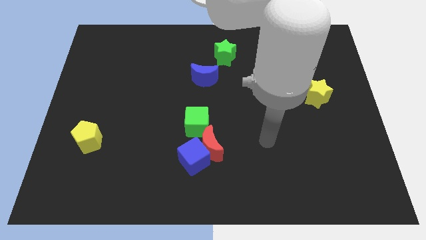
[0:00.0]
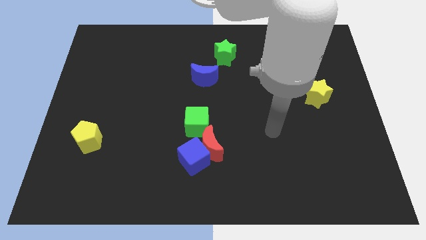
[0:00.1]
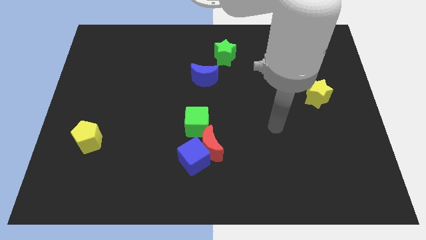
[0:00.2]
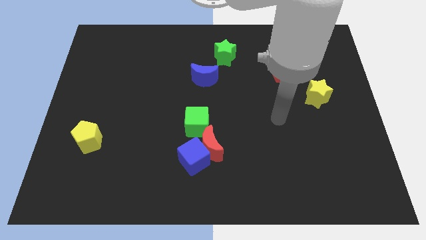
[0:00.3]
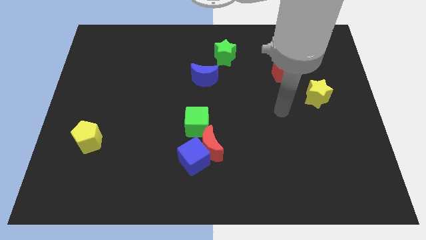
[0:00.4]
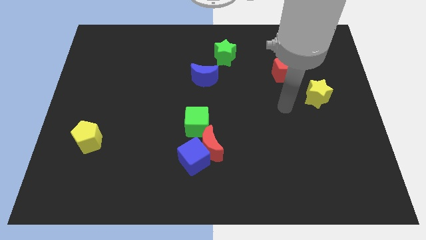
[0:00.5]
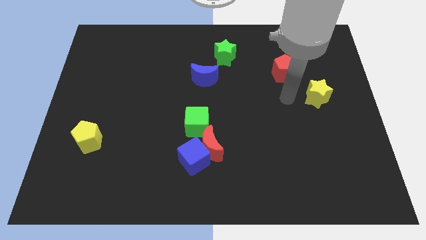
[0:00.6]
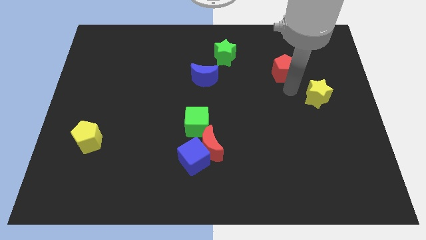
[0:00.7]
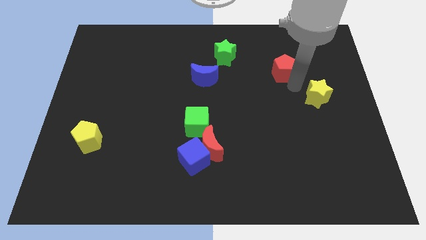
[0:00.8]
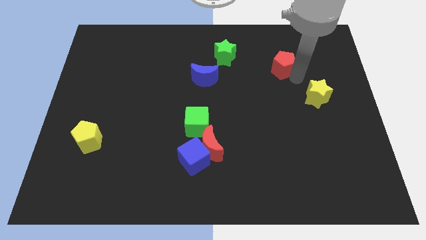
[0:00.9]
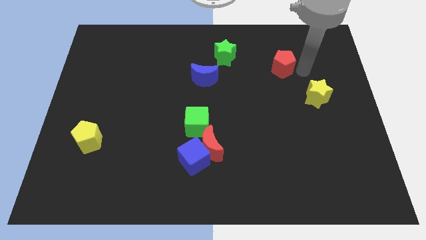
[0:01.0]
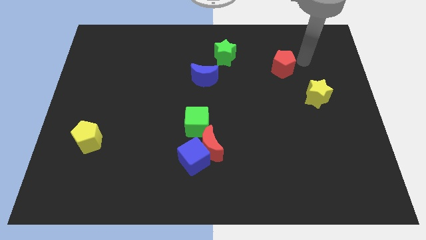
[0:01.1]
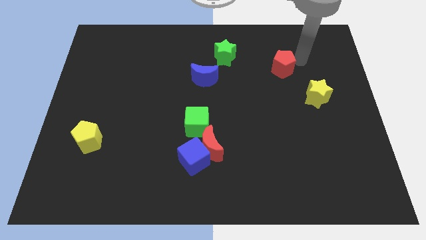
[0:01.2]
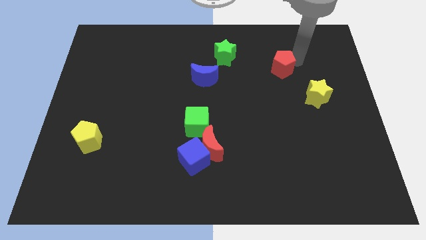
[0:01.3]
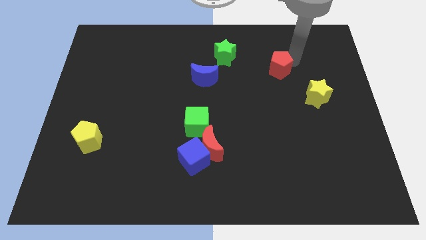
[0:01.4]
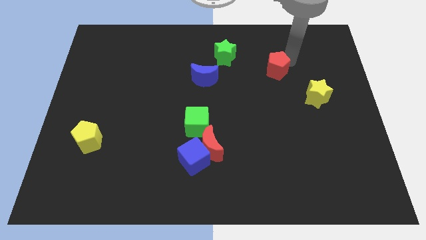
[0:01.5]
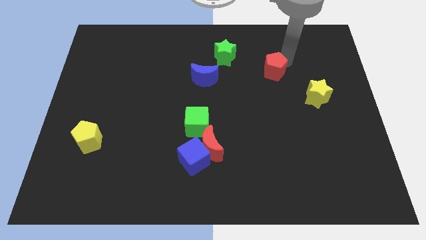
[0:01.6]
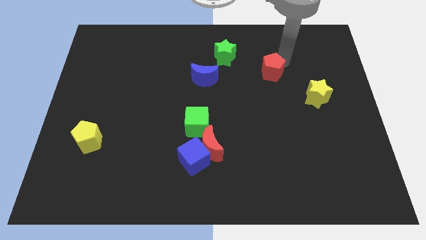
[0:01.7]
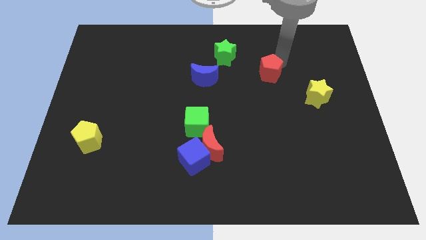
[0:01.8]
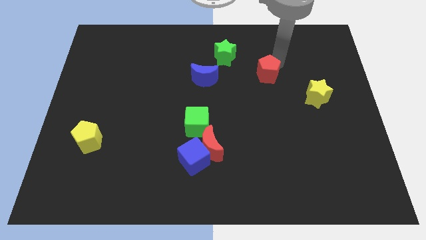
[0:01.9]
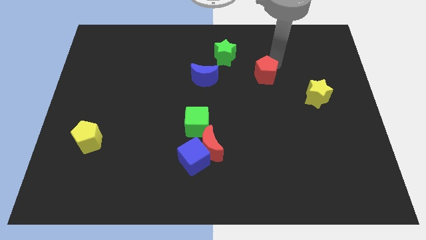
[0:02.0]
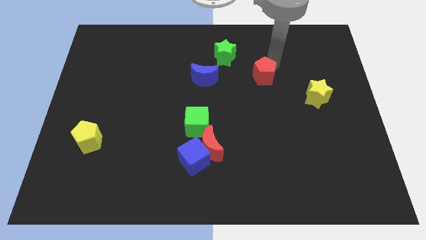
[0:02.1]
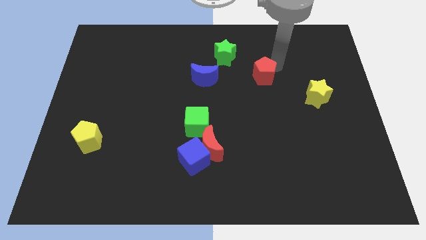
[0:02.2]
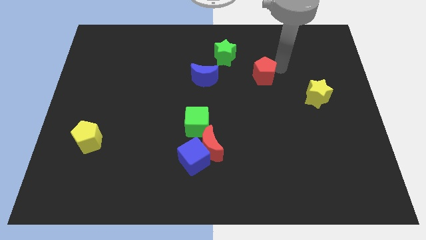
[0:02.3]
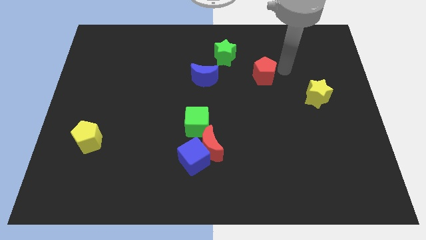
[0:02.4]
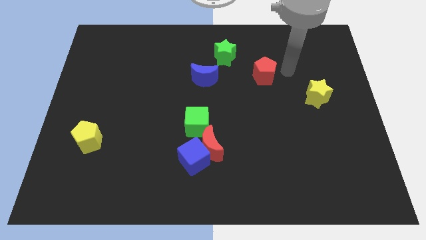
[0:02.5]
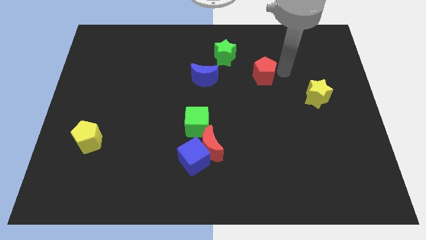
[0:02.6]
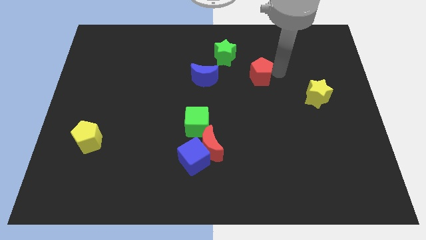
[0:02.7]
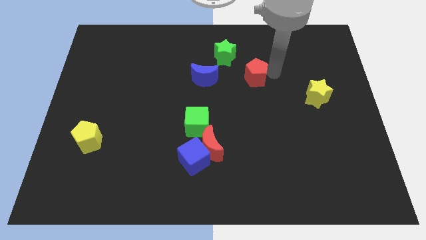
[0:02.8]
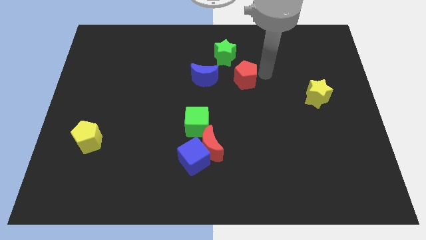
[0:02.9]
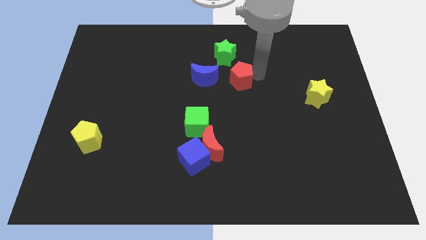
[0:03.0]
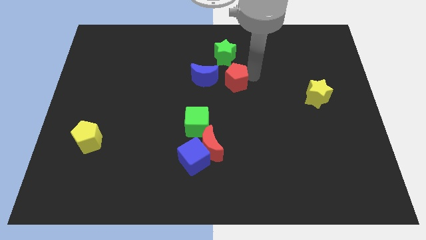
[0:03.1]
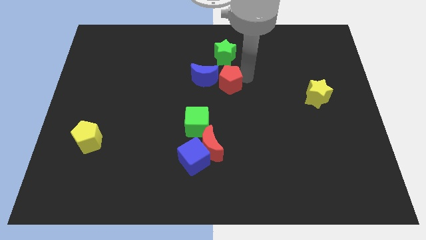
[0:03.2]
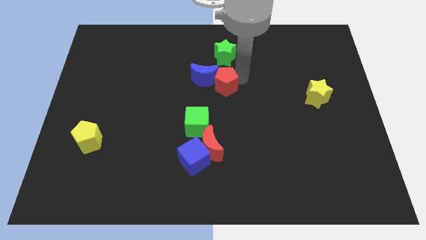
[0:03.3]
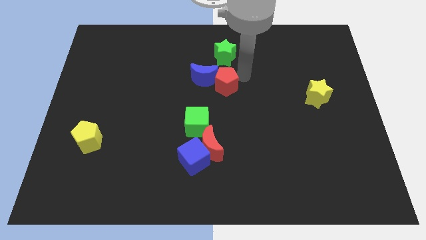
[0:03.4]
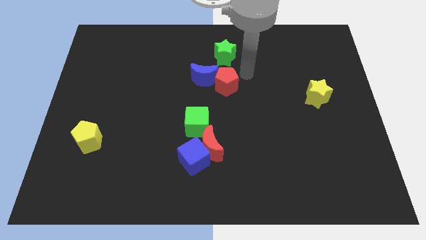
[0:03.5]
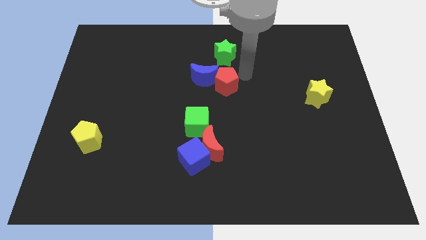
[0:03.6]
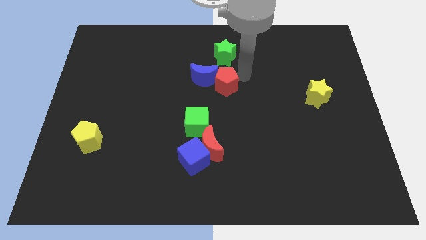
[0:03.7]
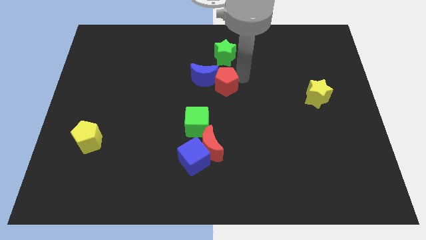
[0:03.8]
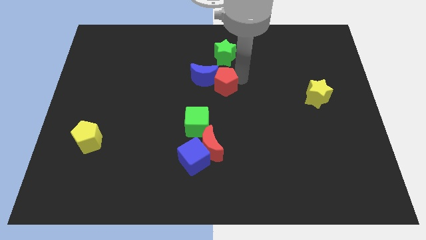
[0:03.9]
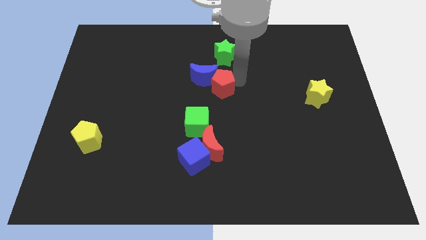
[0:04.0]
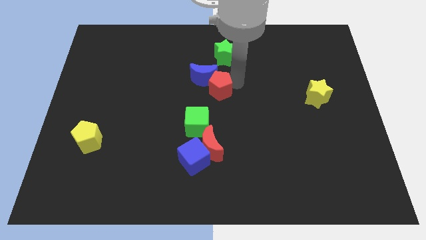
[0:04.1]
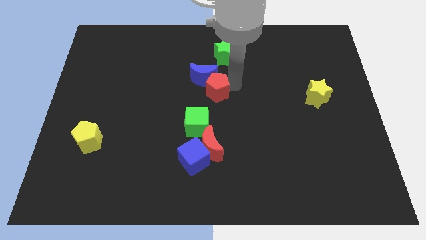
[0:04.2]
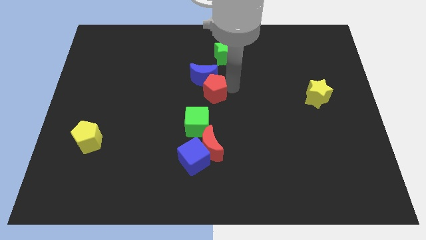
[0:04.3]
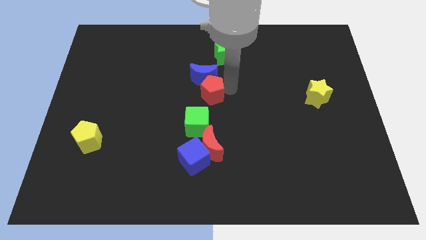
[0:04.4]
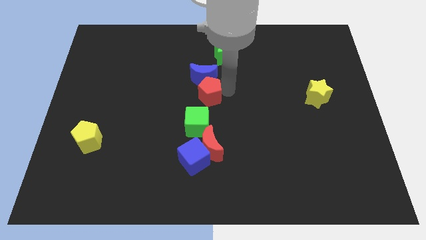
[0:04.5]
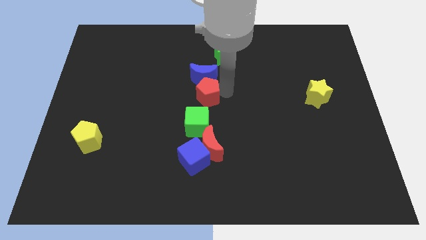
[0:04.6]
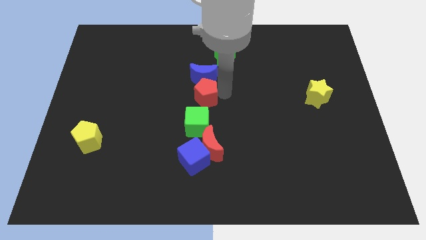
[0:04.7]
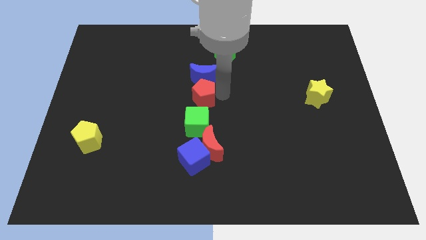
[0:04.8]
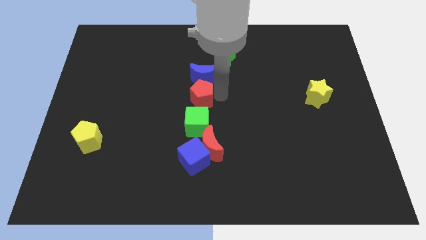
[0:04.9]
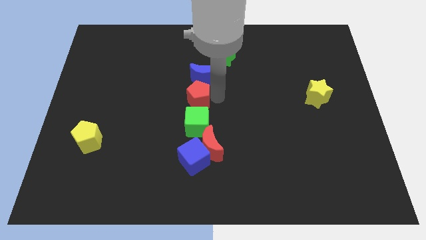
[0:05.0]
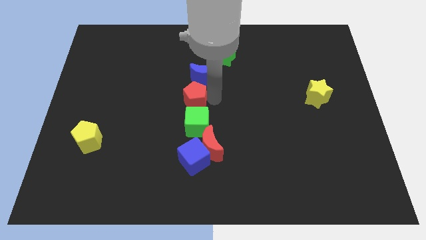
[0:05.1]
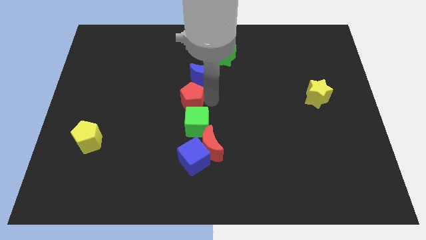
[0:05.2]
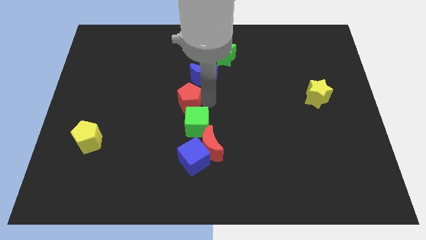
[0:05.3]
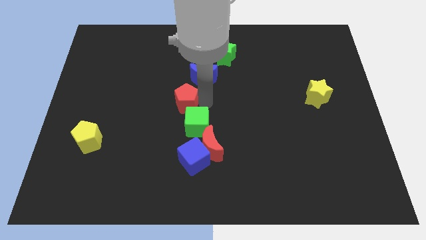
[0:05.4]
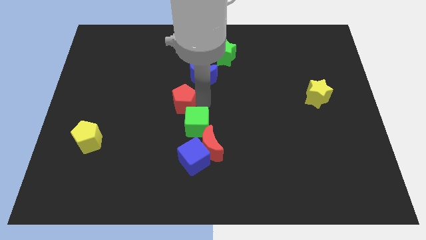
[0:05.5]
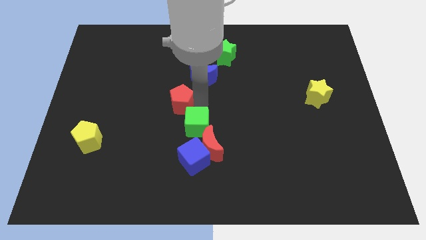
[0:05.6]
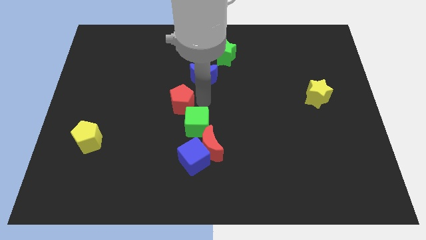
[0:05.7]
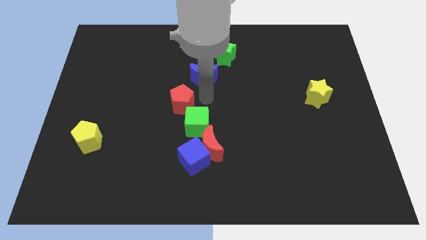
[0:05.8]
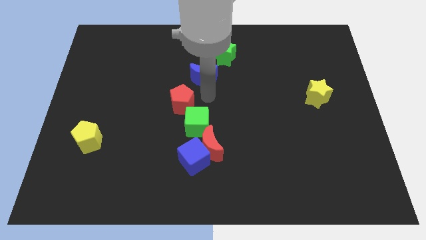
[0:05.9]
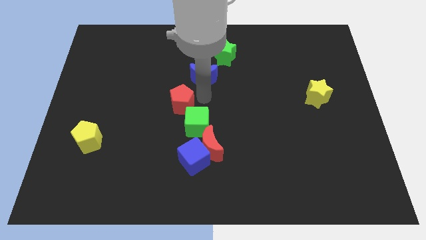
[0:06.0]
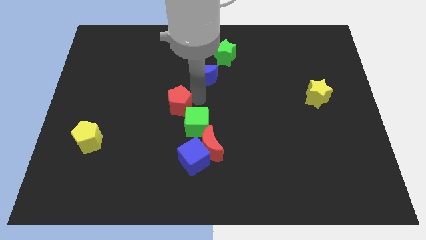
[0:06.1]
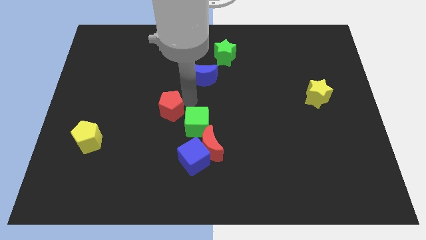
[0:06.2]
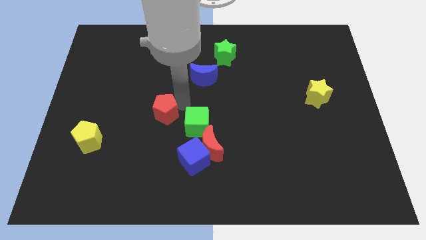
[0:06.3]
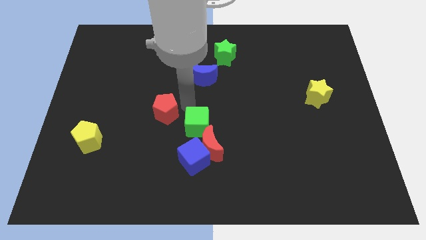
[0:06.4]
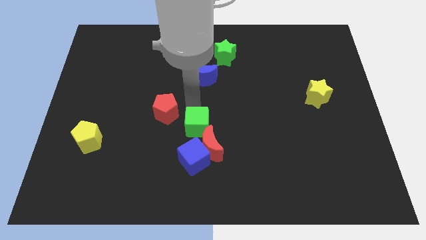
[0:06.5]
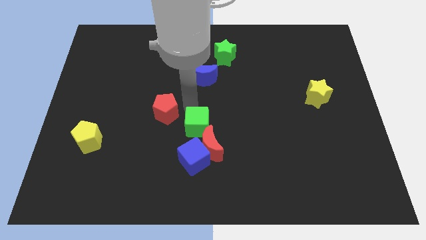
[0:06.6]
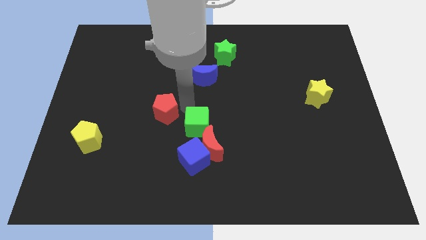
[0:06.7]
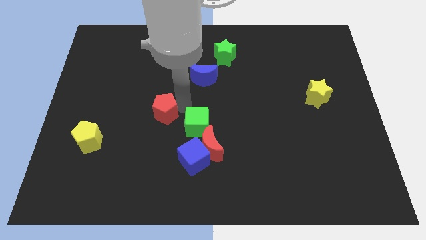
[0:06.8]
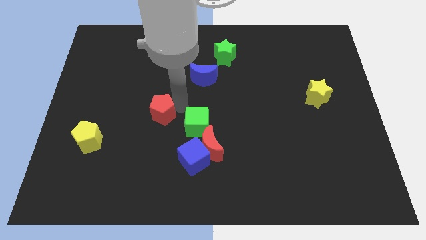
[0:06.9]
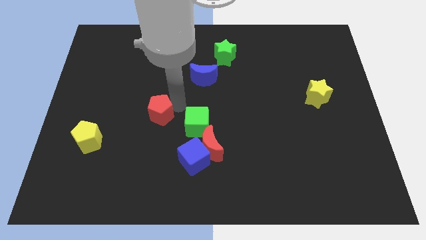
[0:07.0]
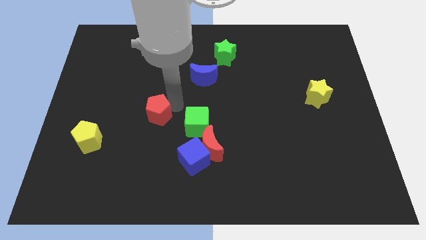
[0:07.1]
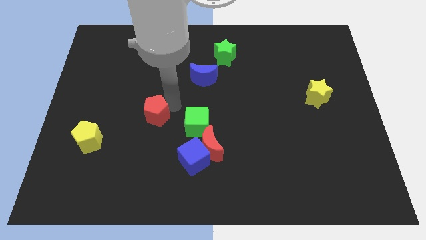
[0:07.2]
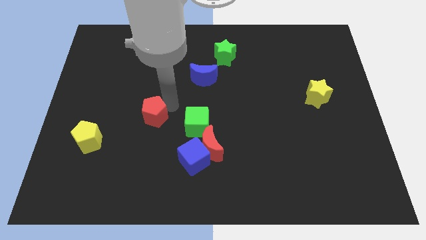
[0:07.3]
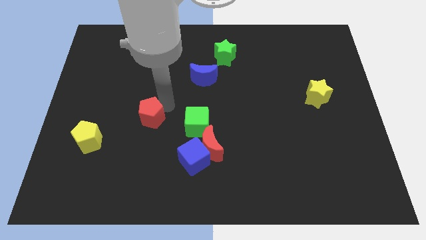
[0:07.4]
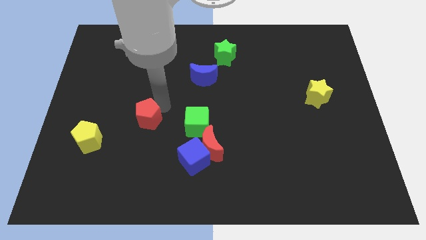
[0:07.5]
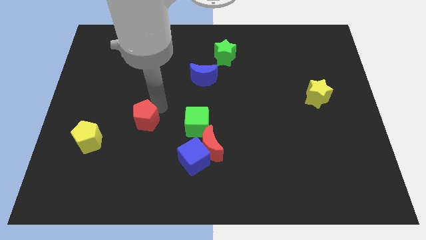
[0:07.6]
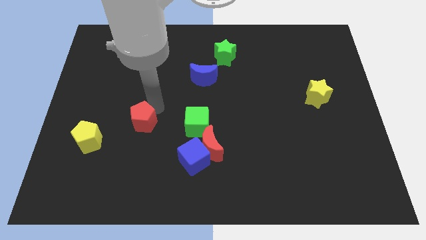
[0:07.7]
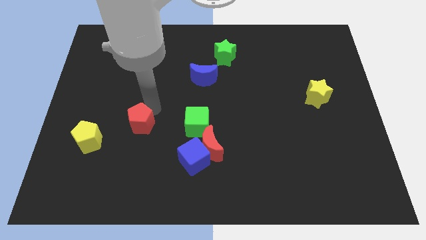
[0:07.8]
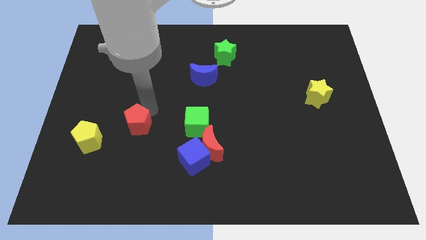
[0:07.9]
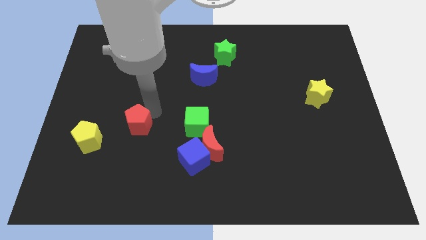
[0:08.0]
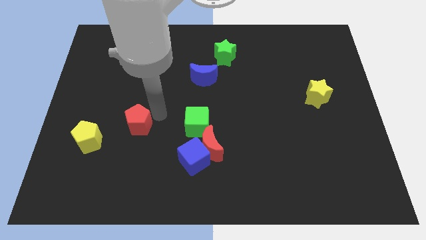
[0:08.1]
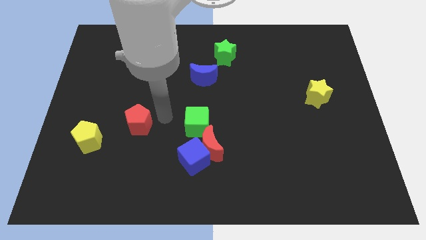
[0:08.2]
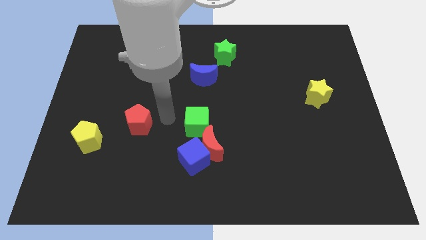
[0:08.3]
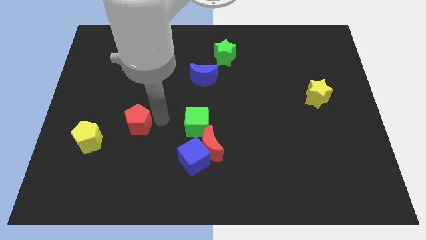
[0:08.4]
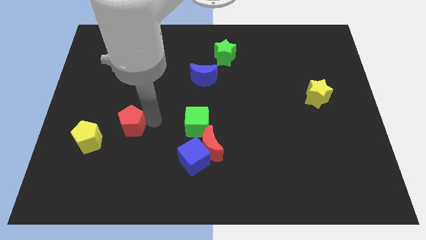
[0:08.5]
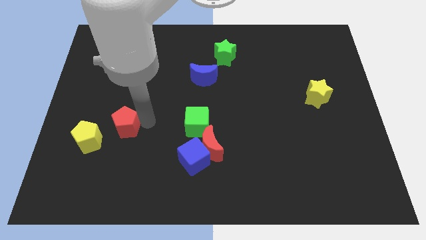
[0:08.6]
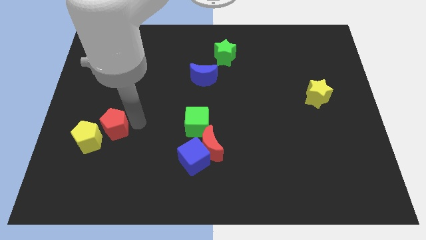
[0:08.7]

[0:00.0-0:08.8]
slide the red pentagon close to the yellow pentagon
